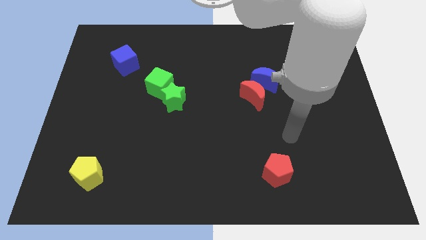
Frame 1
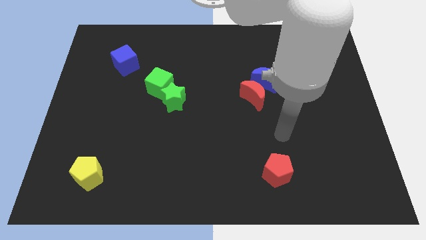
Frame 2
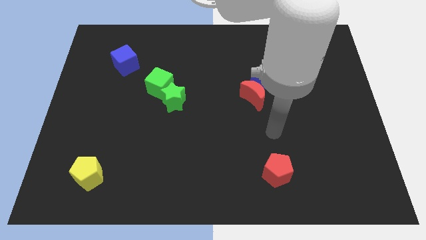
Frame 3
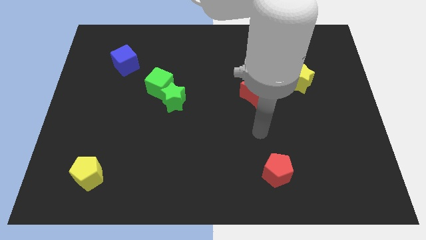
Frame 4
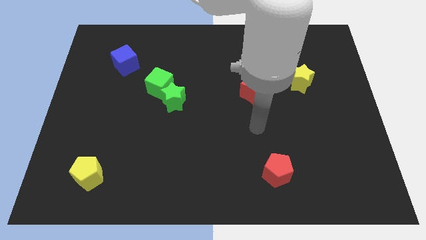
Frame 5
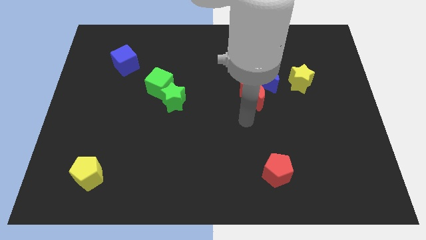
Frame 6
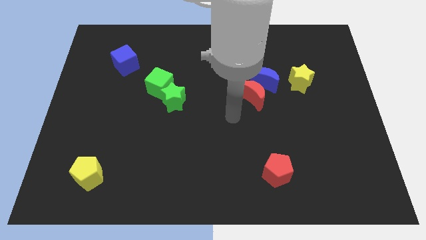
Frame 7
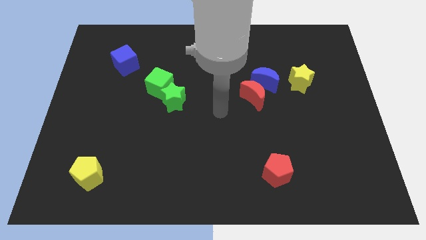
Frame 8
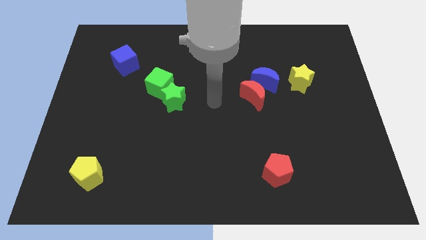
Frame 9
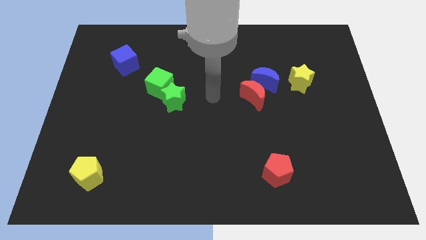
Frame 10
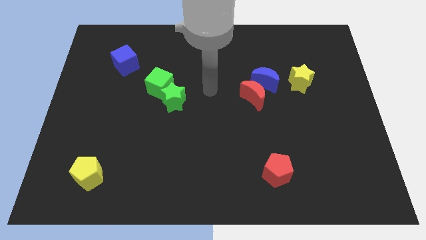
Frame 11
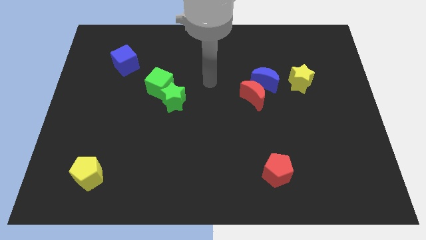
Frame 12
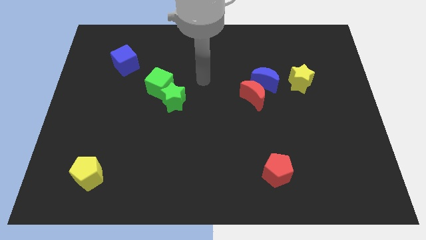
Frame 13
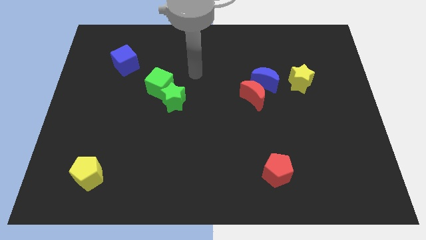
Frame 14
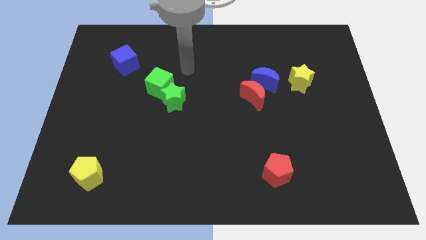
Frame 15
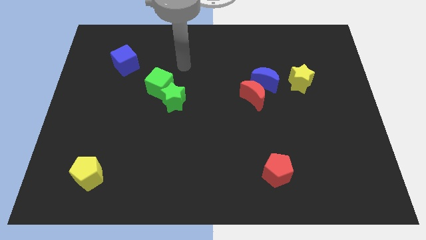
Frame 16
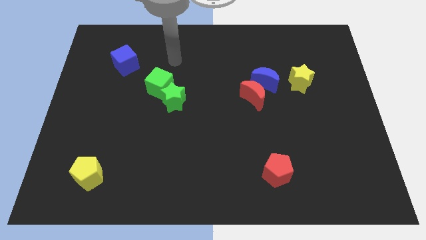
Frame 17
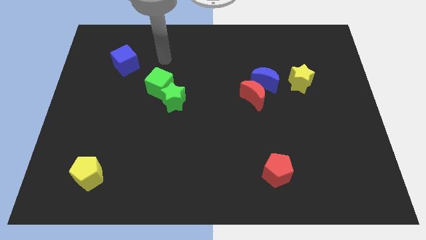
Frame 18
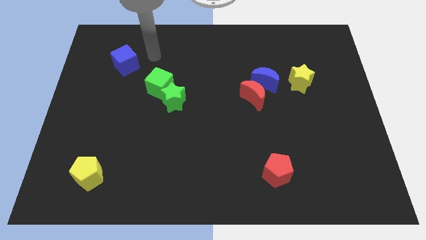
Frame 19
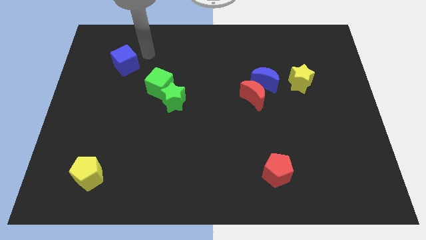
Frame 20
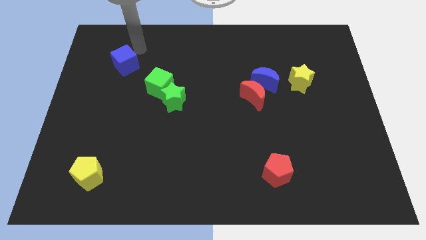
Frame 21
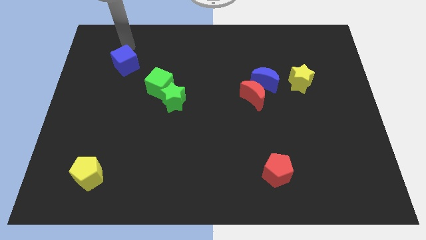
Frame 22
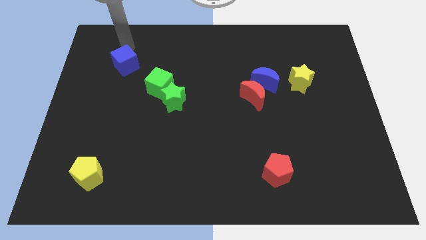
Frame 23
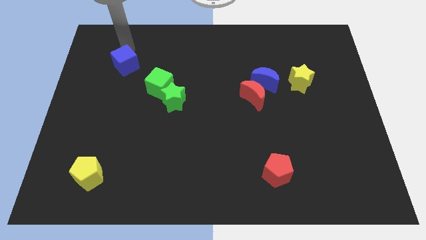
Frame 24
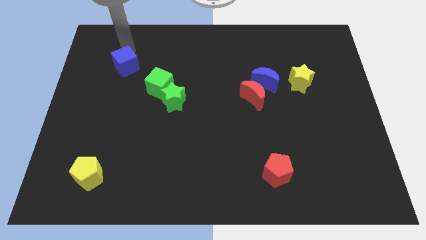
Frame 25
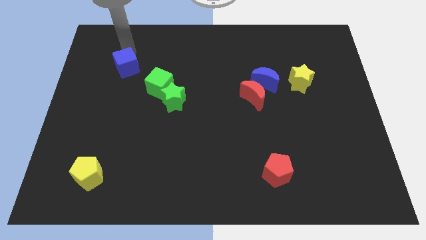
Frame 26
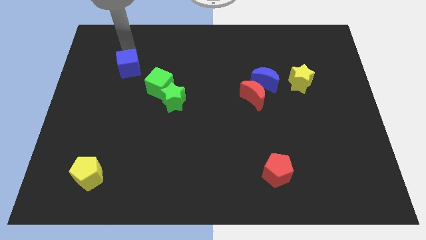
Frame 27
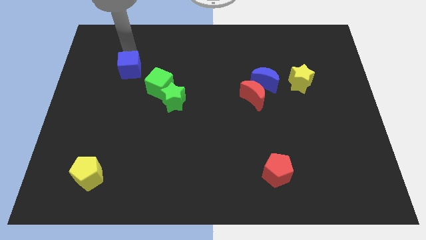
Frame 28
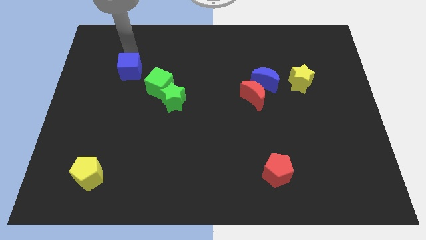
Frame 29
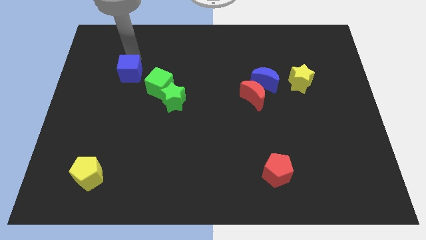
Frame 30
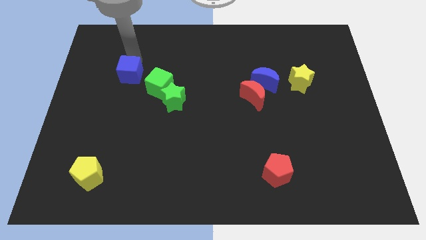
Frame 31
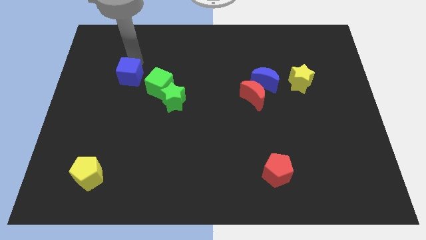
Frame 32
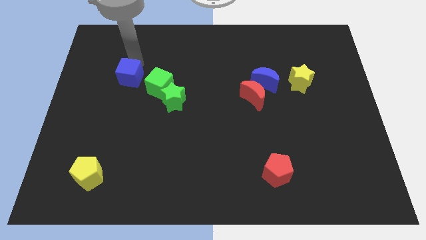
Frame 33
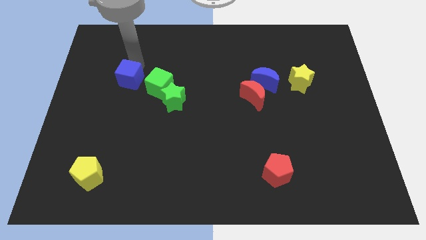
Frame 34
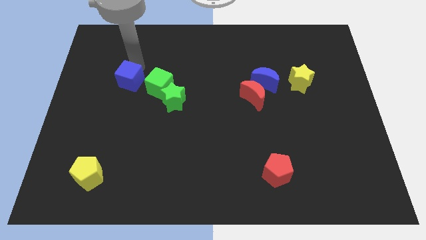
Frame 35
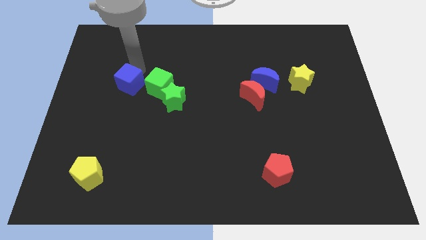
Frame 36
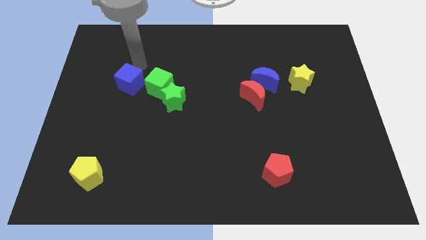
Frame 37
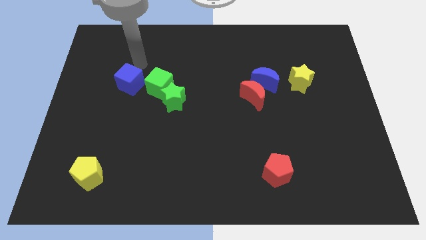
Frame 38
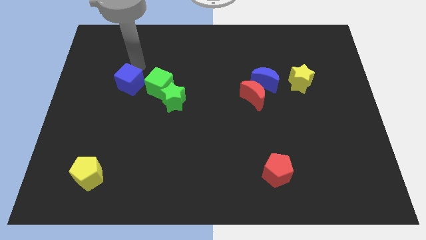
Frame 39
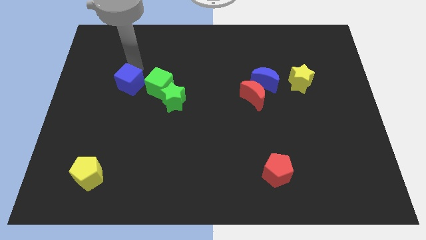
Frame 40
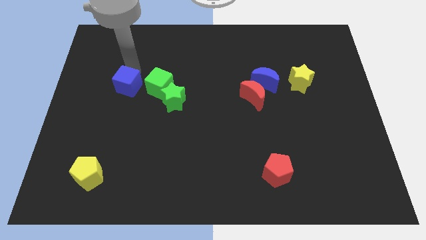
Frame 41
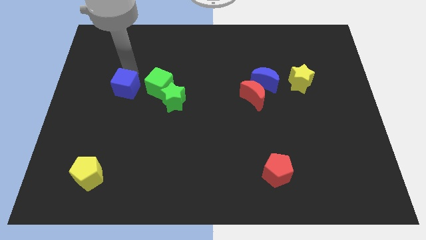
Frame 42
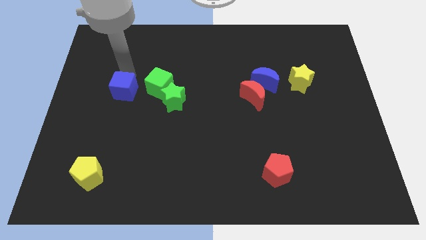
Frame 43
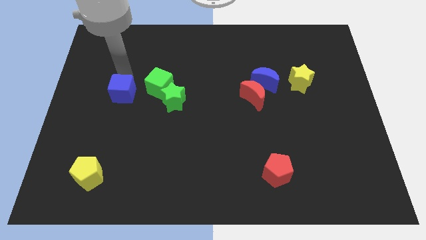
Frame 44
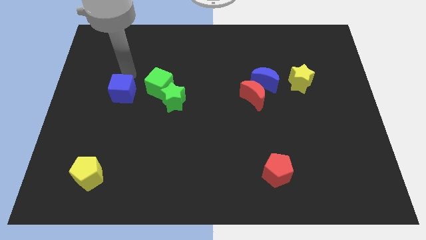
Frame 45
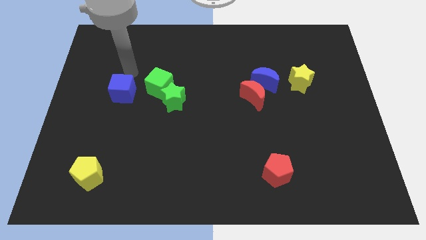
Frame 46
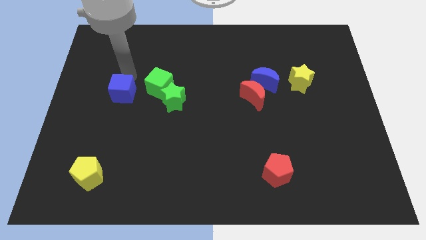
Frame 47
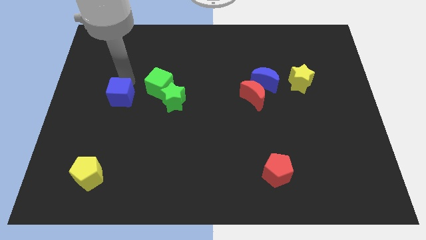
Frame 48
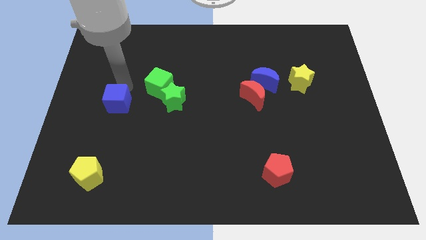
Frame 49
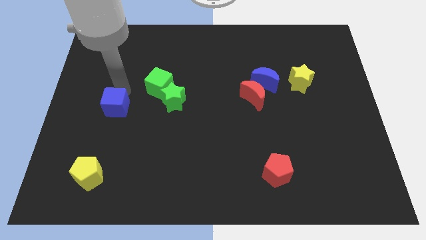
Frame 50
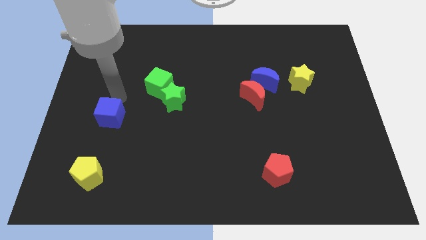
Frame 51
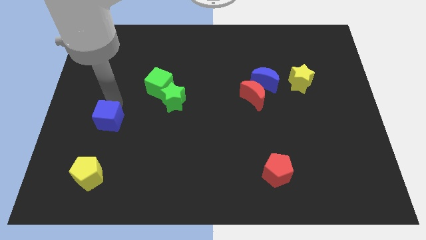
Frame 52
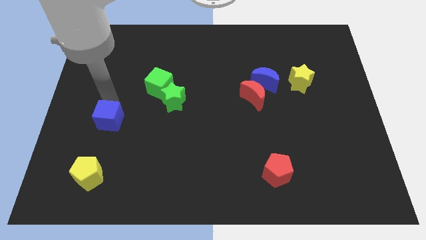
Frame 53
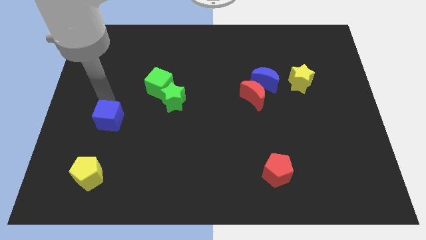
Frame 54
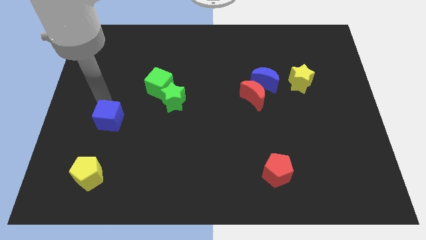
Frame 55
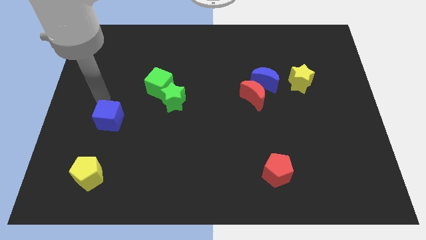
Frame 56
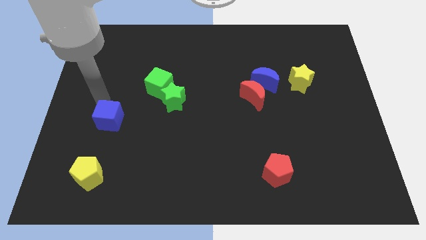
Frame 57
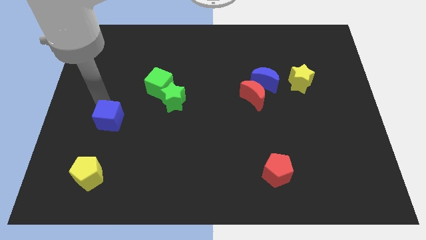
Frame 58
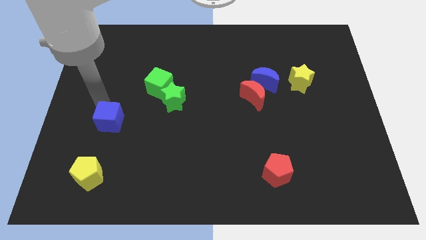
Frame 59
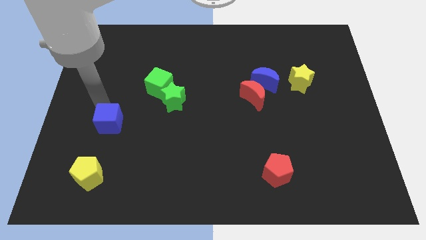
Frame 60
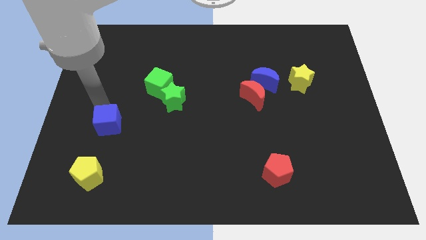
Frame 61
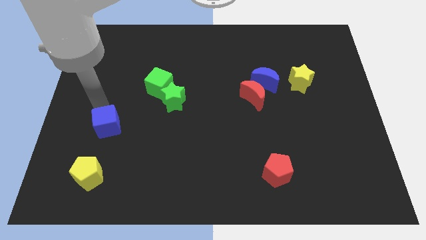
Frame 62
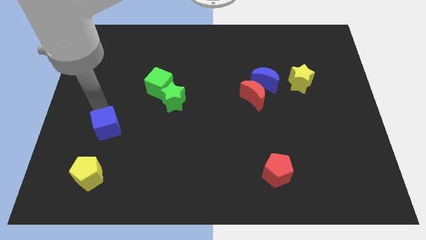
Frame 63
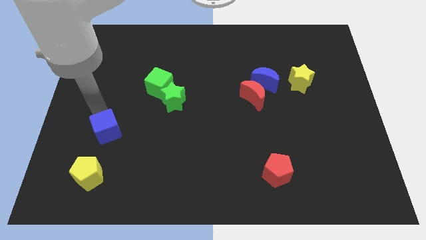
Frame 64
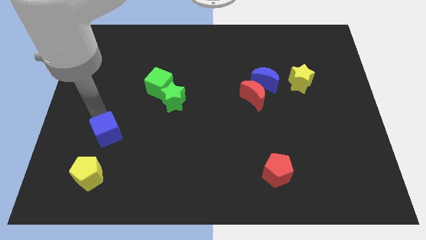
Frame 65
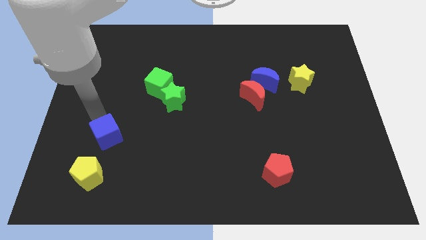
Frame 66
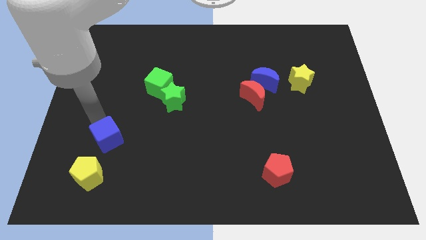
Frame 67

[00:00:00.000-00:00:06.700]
push the blue cube to the top right of the yellow pentagon
